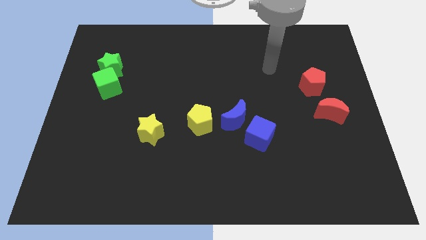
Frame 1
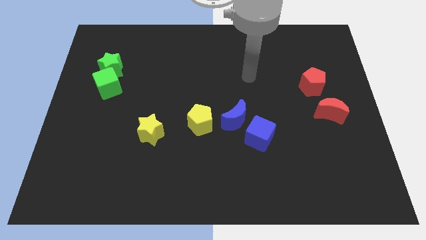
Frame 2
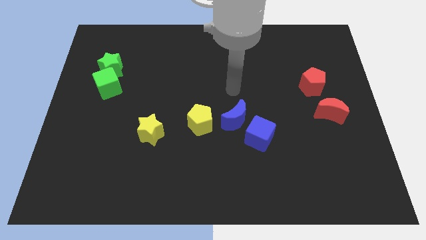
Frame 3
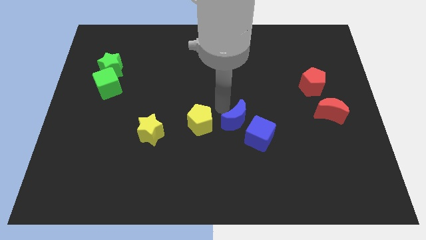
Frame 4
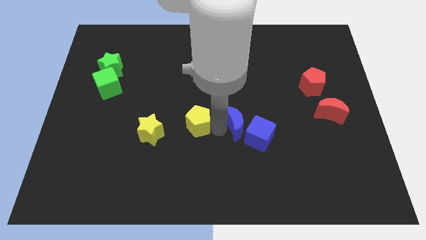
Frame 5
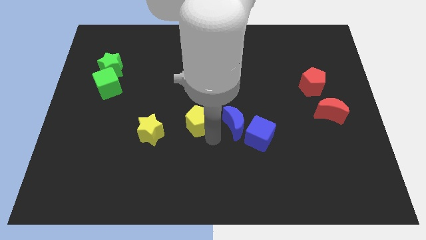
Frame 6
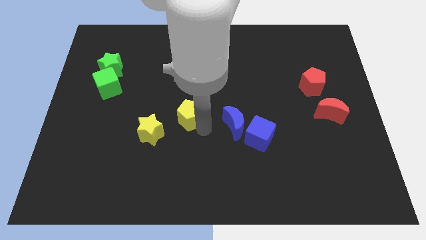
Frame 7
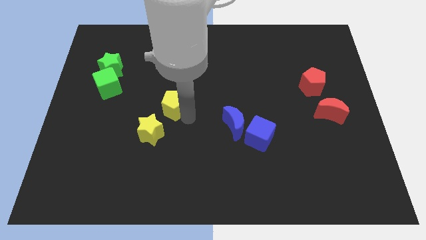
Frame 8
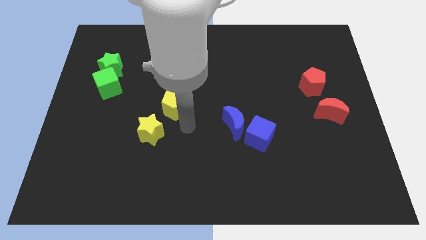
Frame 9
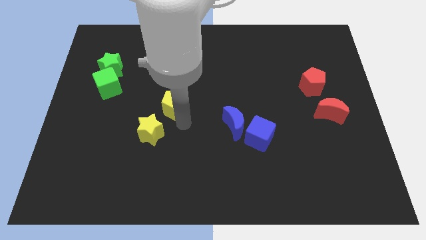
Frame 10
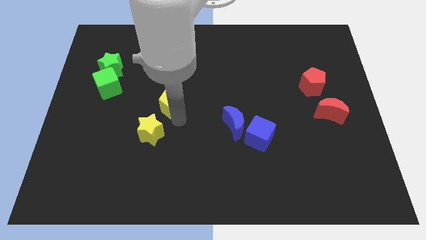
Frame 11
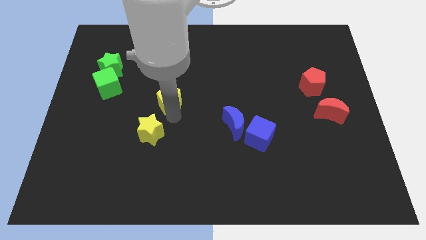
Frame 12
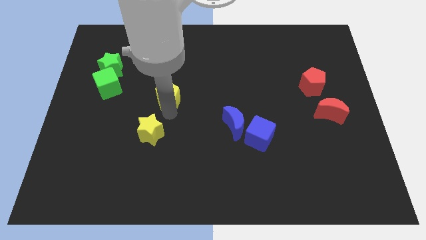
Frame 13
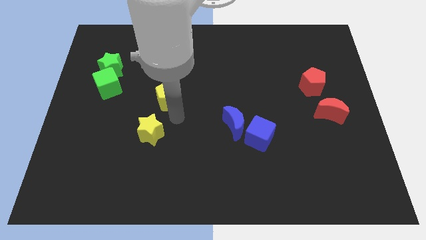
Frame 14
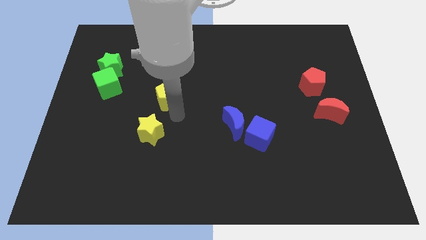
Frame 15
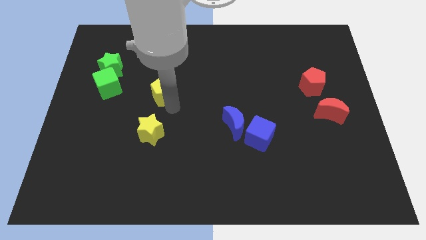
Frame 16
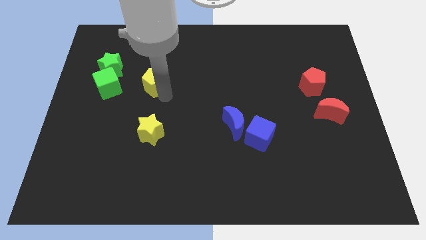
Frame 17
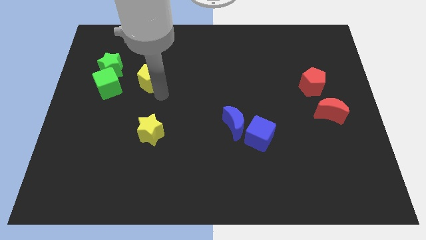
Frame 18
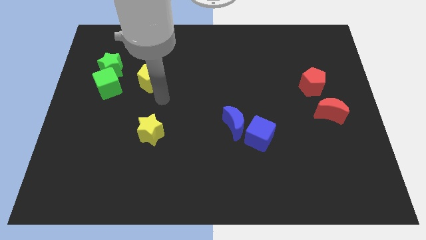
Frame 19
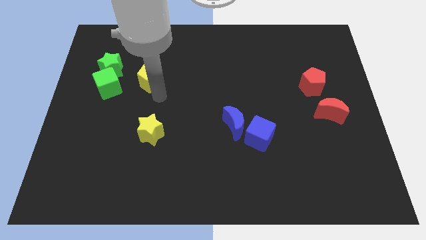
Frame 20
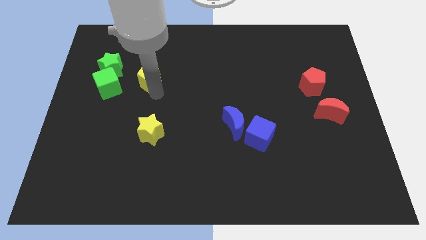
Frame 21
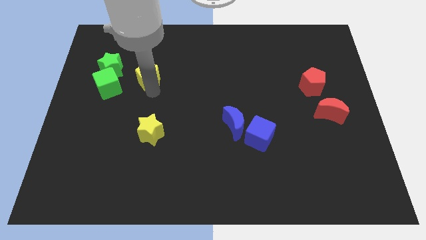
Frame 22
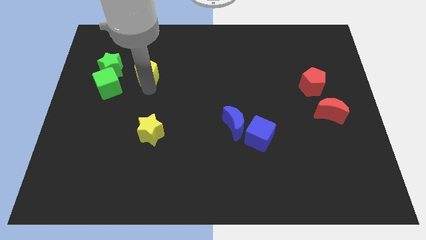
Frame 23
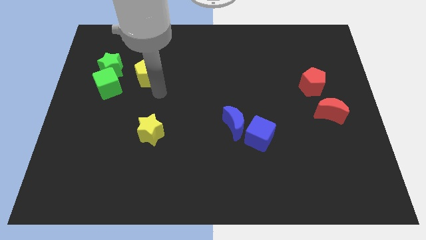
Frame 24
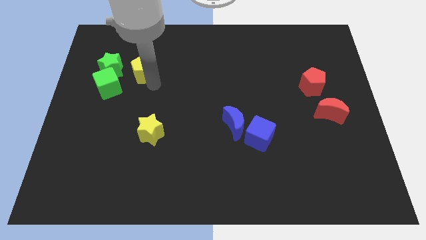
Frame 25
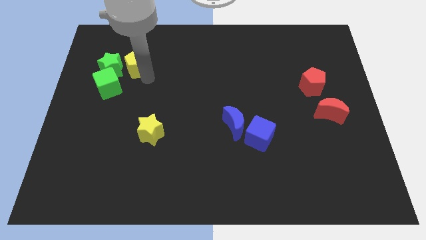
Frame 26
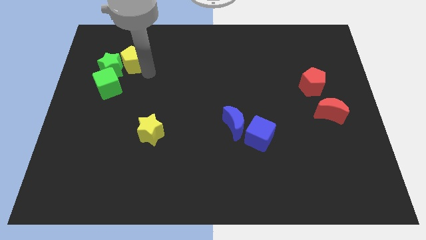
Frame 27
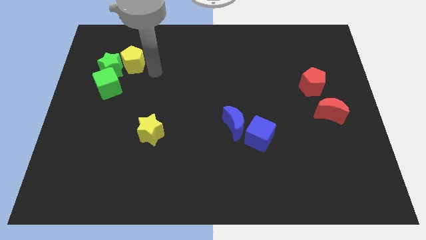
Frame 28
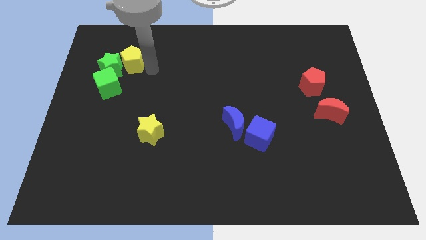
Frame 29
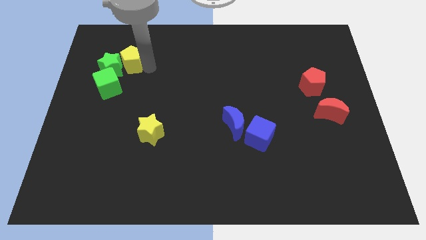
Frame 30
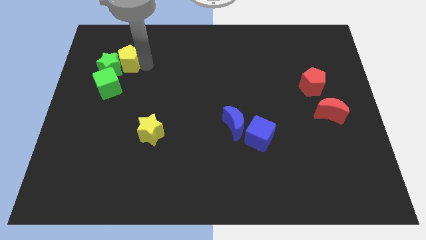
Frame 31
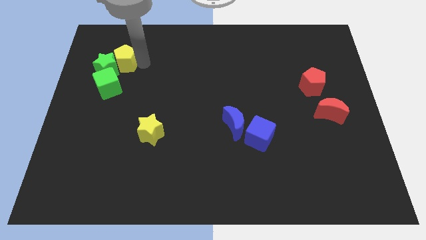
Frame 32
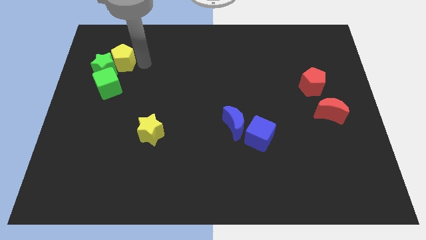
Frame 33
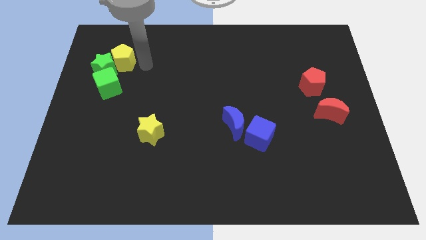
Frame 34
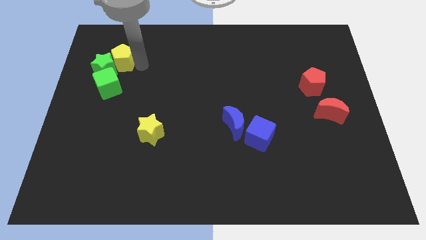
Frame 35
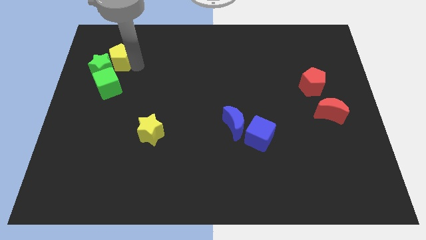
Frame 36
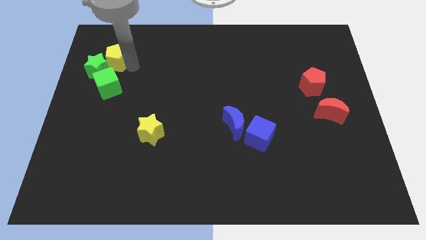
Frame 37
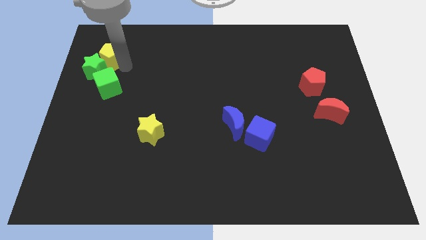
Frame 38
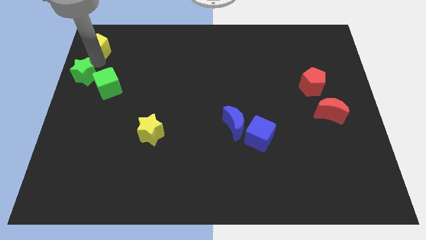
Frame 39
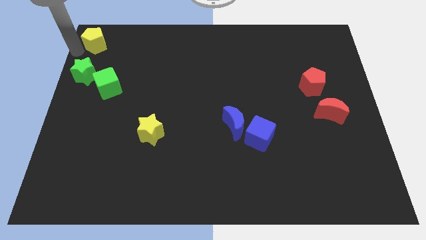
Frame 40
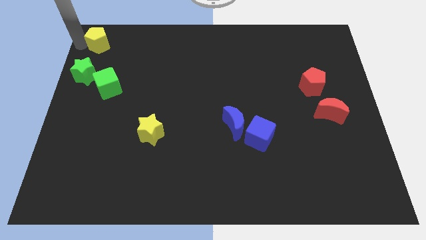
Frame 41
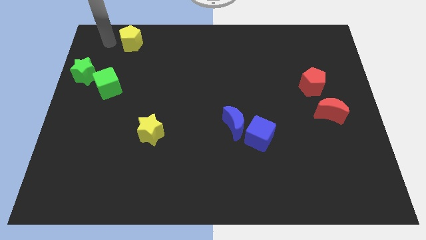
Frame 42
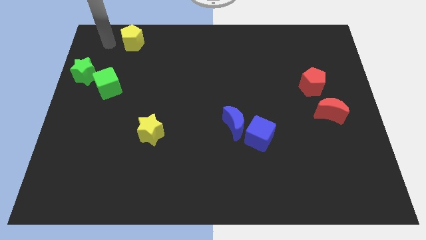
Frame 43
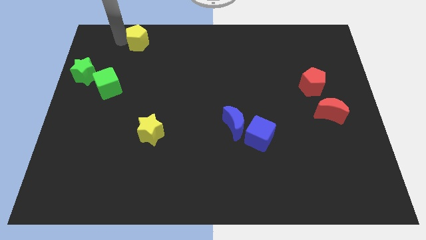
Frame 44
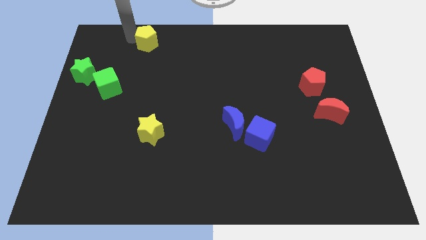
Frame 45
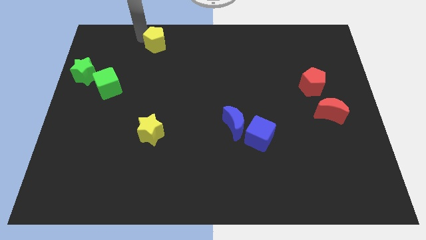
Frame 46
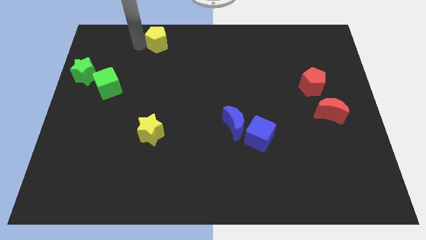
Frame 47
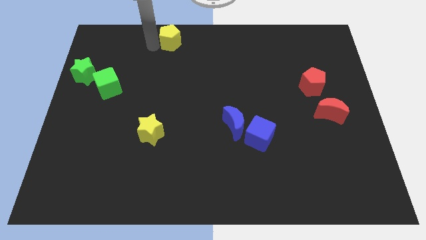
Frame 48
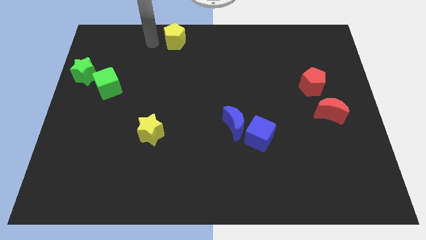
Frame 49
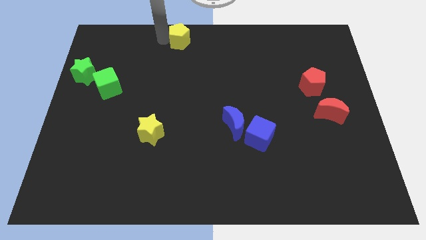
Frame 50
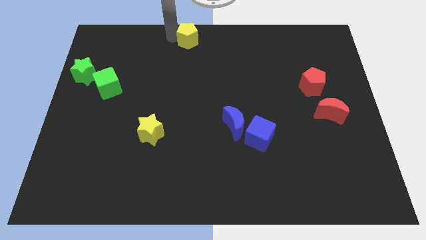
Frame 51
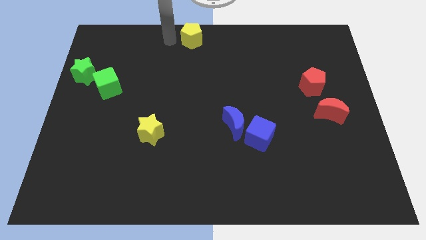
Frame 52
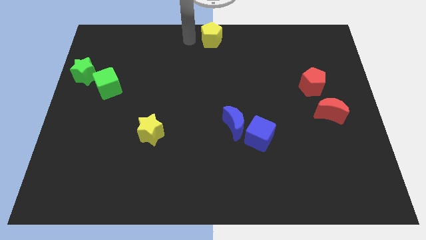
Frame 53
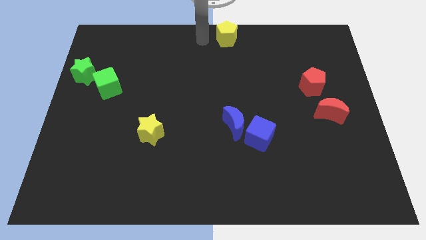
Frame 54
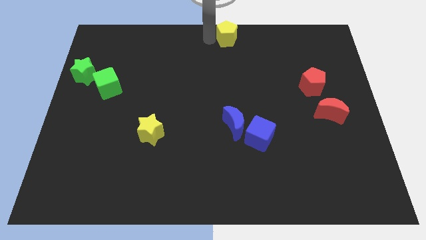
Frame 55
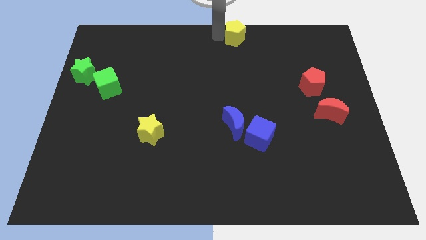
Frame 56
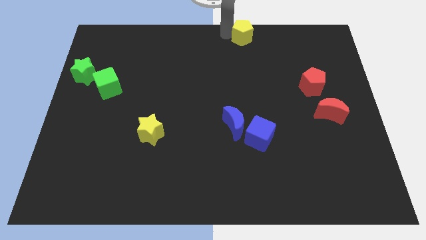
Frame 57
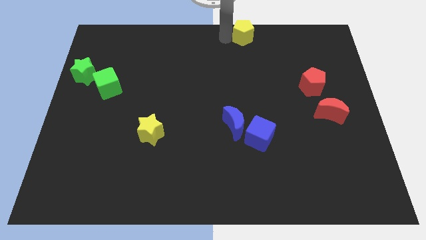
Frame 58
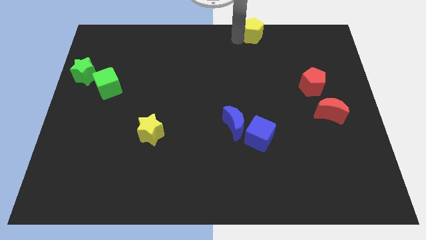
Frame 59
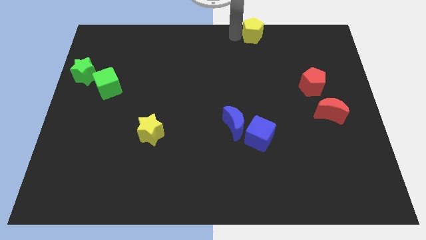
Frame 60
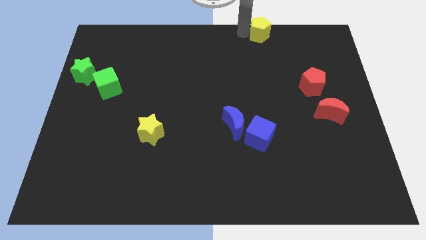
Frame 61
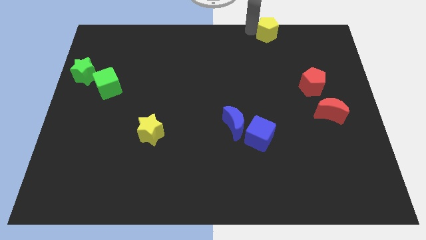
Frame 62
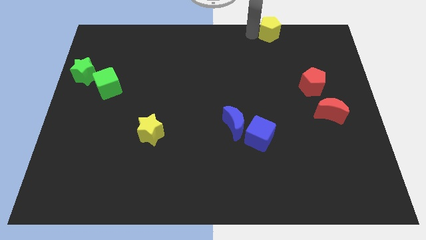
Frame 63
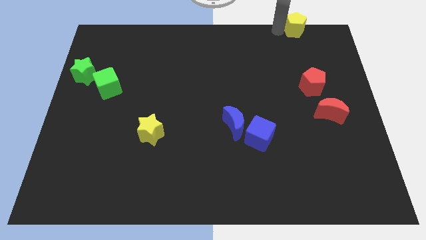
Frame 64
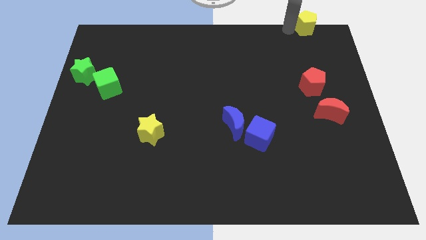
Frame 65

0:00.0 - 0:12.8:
move the yellow pentagon to the top right

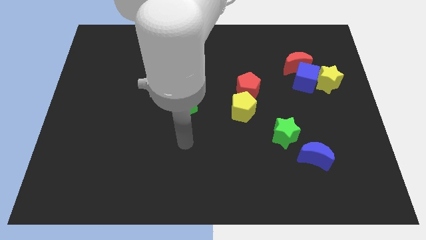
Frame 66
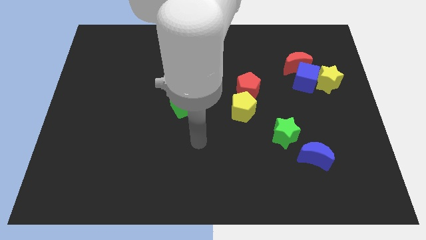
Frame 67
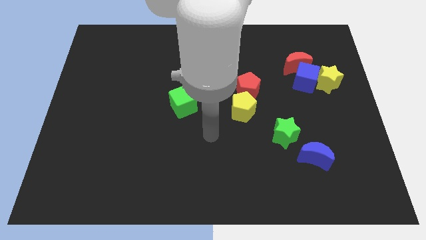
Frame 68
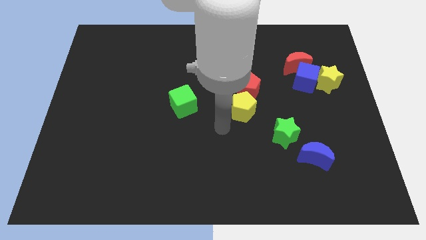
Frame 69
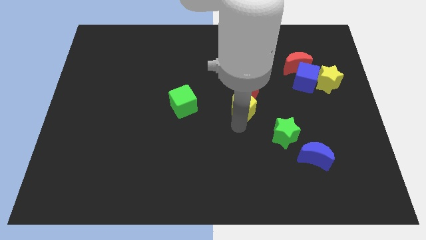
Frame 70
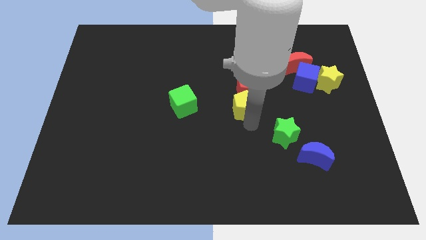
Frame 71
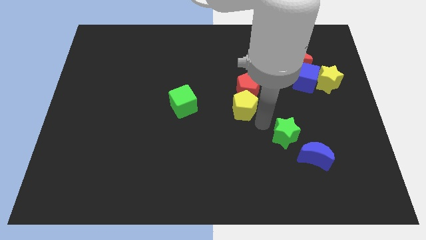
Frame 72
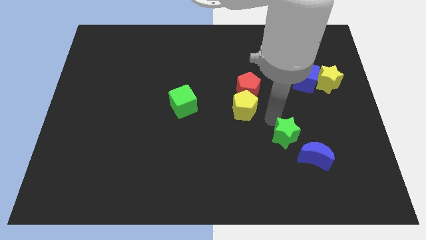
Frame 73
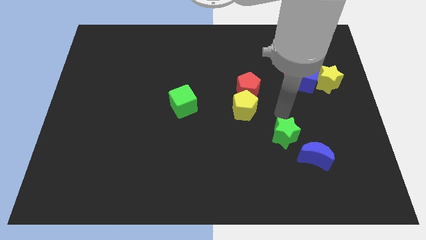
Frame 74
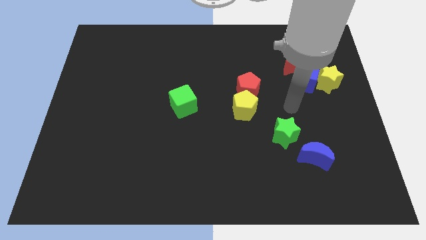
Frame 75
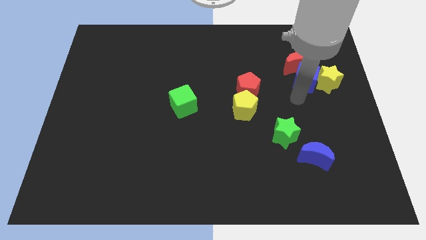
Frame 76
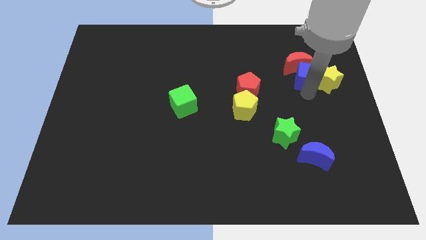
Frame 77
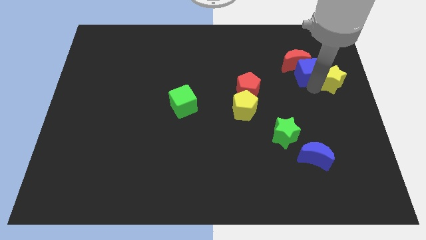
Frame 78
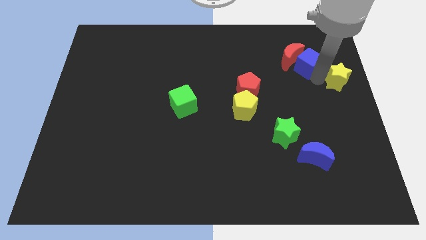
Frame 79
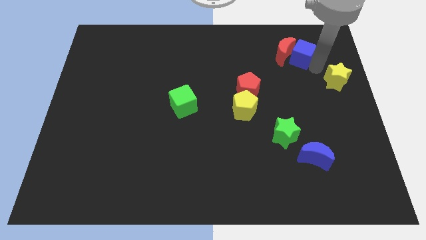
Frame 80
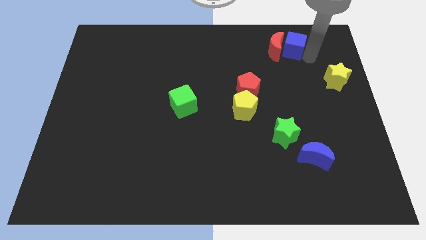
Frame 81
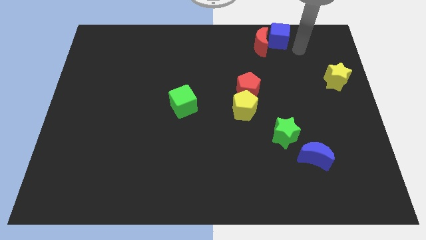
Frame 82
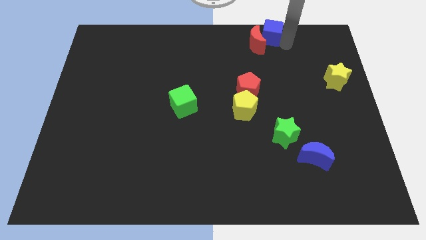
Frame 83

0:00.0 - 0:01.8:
put the red moon to the top side
